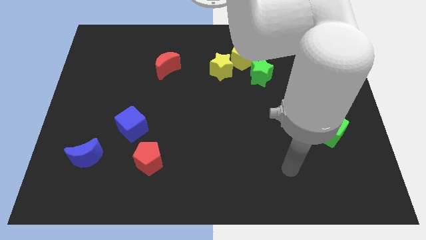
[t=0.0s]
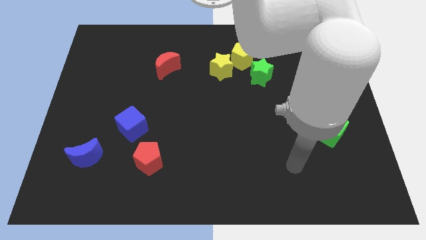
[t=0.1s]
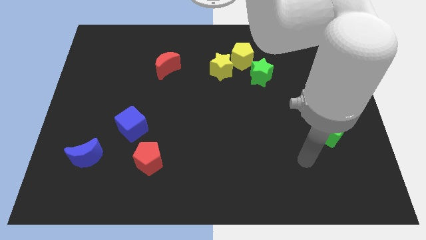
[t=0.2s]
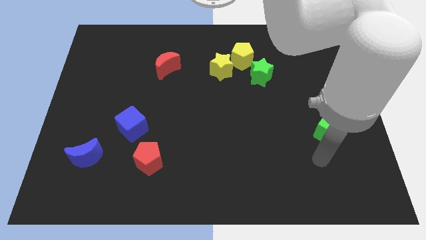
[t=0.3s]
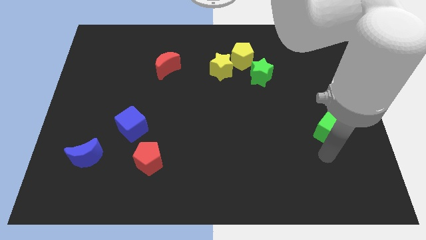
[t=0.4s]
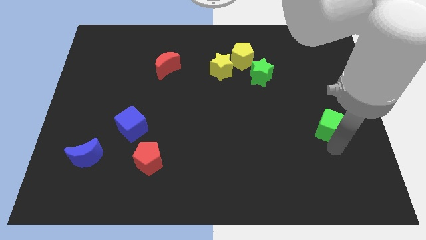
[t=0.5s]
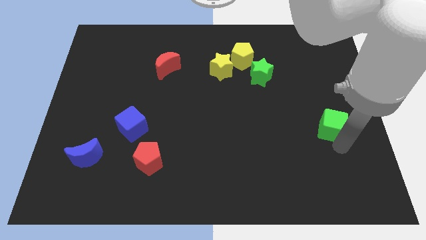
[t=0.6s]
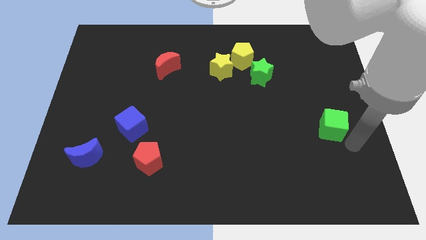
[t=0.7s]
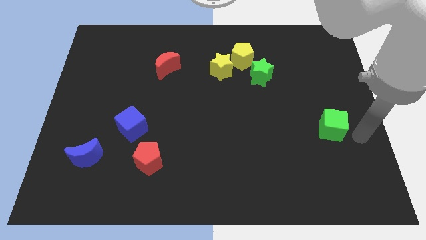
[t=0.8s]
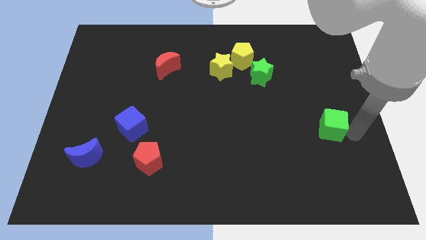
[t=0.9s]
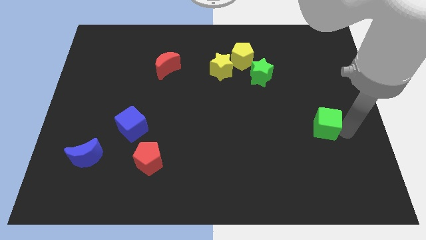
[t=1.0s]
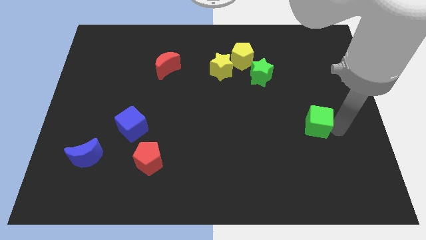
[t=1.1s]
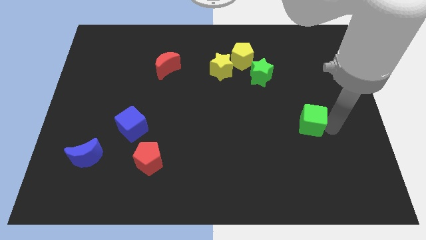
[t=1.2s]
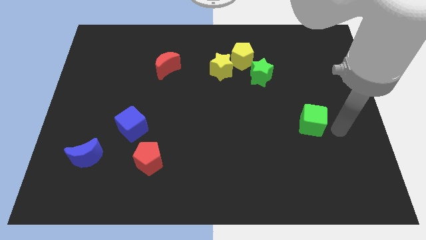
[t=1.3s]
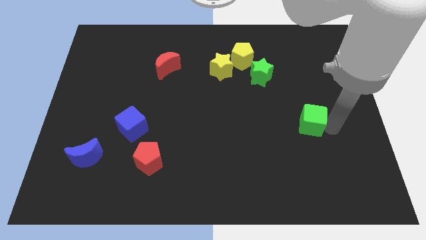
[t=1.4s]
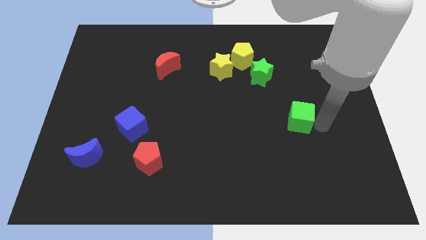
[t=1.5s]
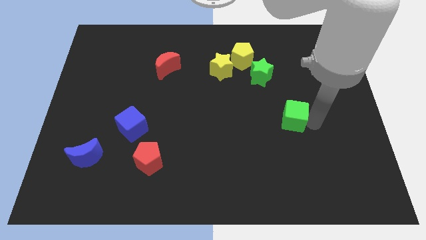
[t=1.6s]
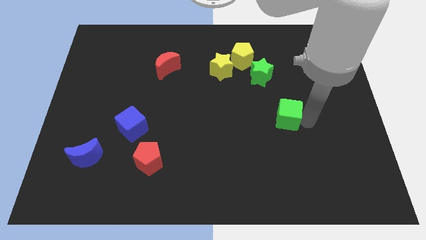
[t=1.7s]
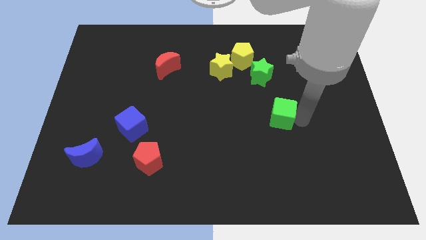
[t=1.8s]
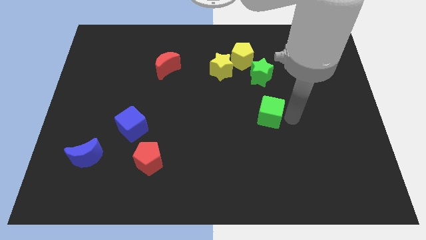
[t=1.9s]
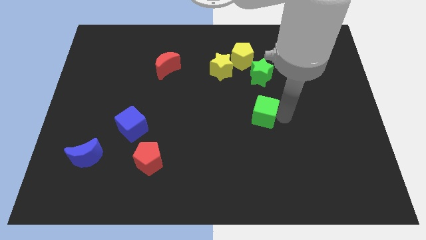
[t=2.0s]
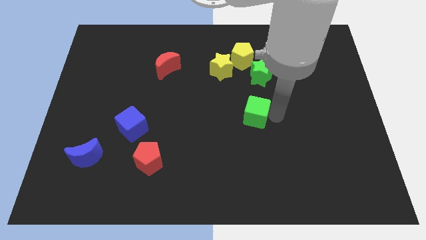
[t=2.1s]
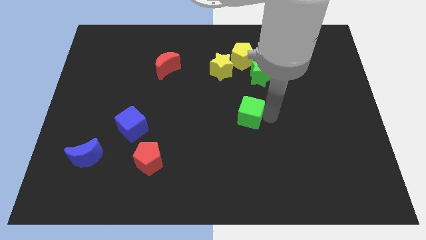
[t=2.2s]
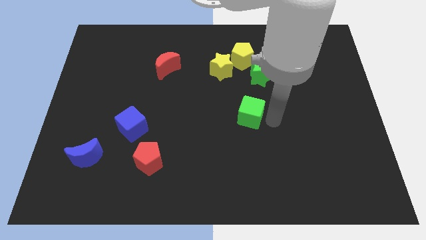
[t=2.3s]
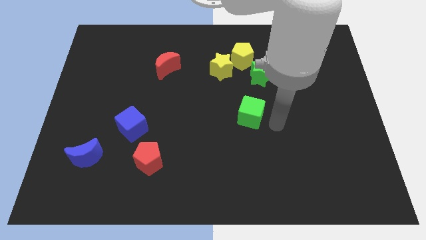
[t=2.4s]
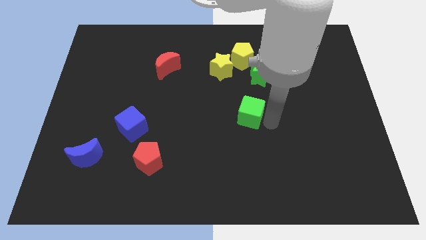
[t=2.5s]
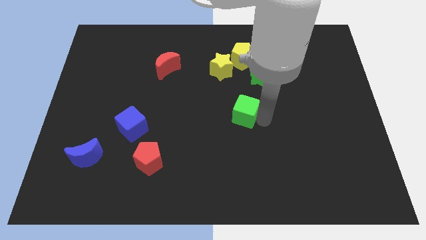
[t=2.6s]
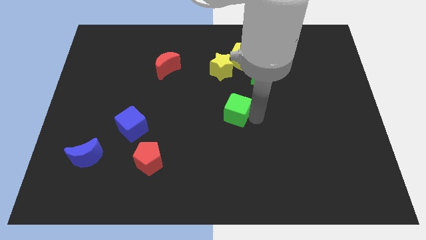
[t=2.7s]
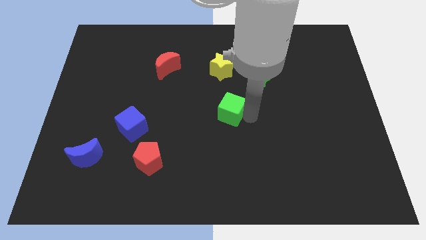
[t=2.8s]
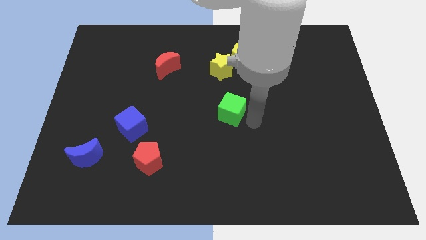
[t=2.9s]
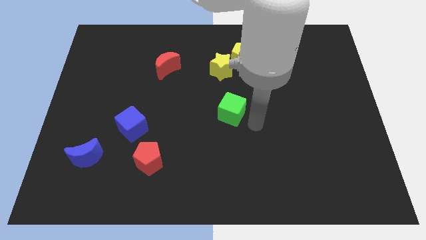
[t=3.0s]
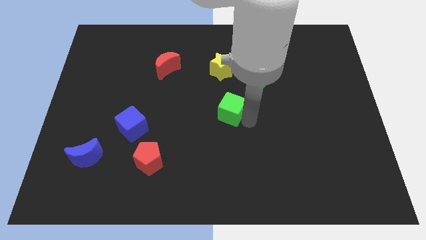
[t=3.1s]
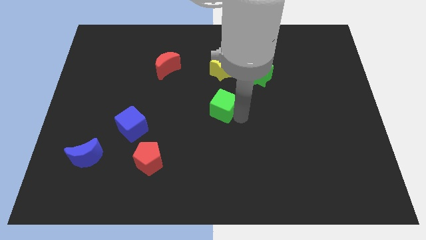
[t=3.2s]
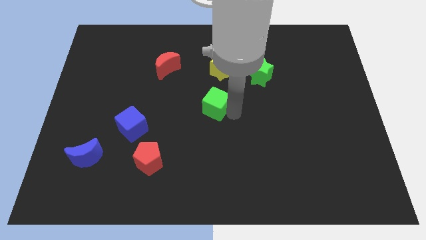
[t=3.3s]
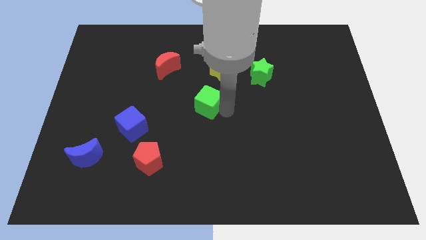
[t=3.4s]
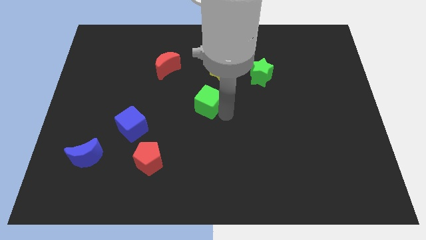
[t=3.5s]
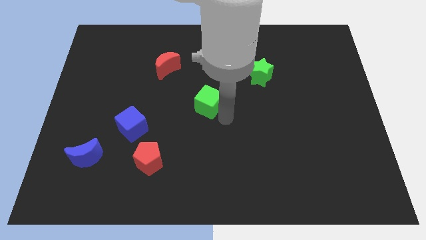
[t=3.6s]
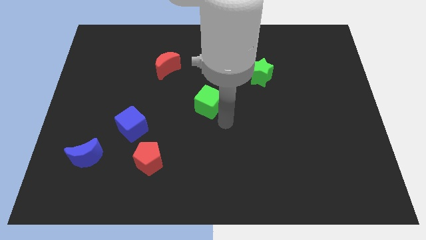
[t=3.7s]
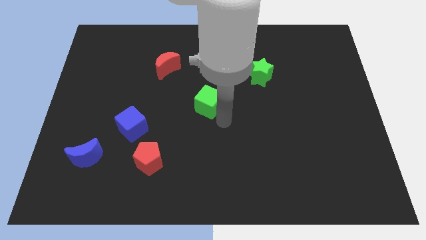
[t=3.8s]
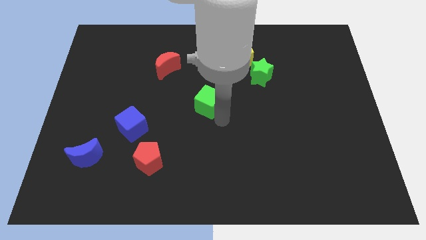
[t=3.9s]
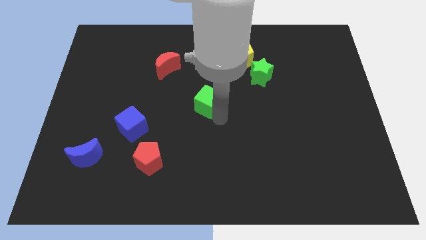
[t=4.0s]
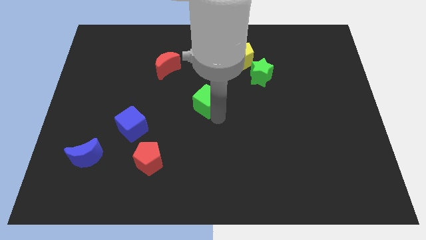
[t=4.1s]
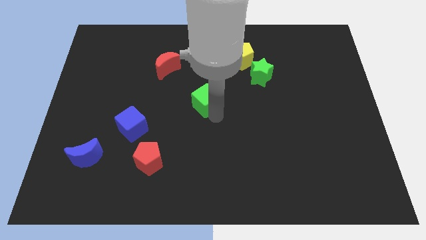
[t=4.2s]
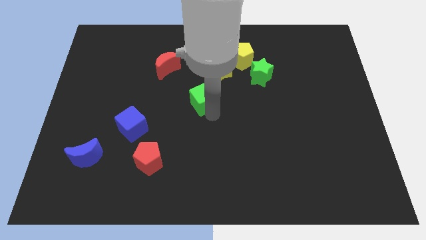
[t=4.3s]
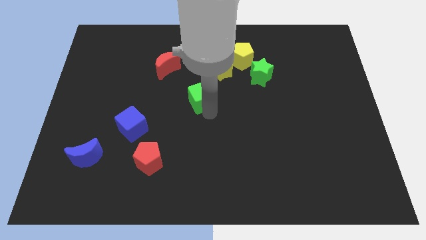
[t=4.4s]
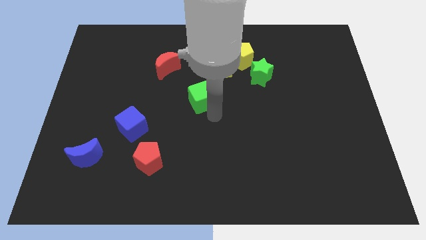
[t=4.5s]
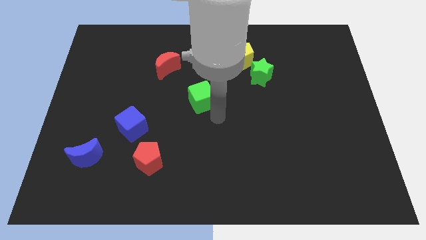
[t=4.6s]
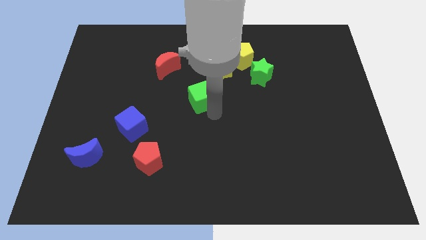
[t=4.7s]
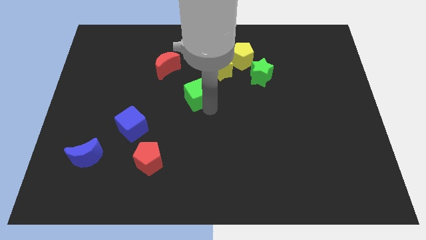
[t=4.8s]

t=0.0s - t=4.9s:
push the green cube diagonally down and to the right of the red moon

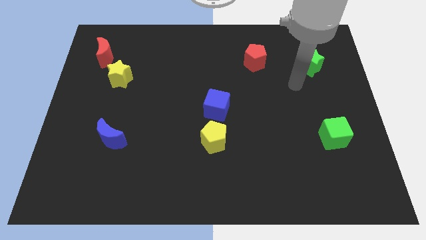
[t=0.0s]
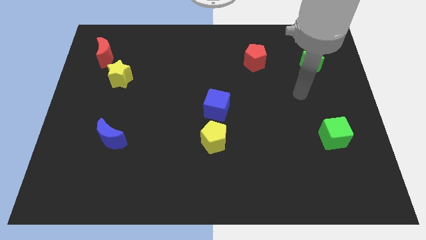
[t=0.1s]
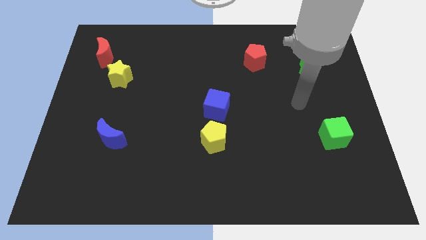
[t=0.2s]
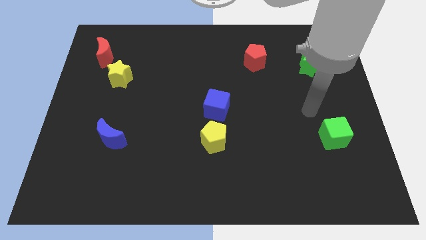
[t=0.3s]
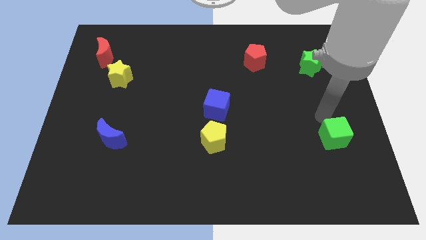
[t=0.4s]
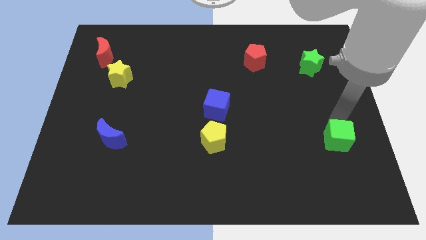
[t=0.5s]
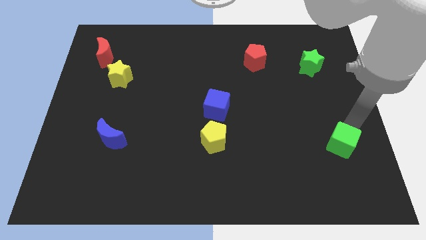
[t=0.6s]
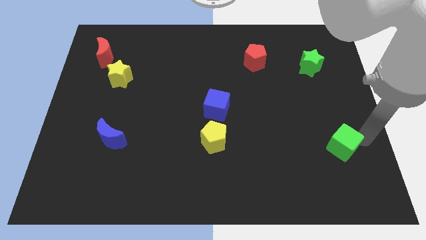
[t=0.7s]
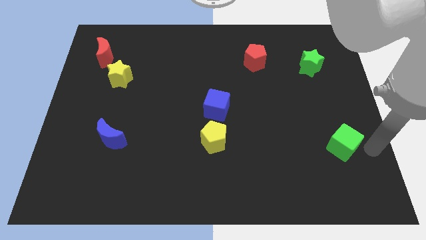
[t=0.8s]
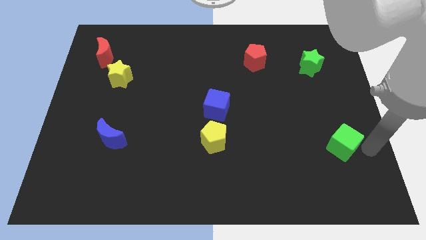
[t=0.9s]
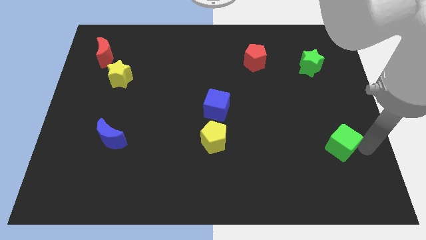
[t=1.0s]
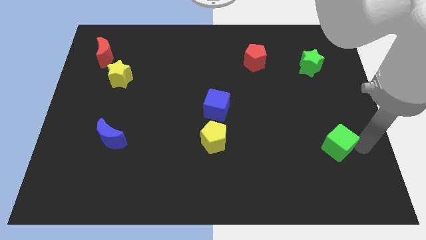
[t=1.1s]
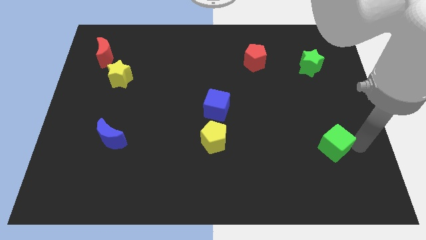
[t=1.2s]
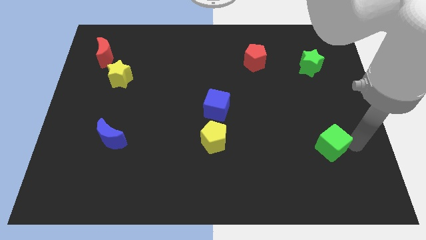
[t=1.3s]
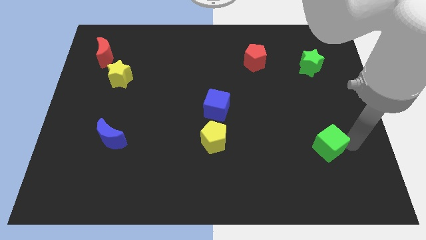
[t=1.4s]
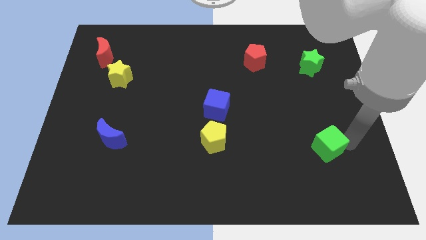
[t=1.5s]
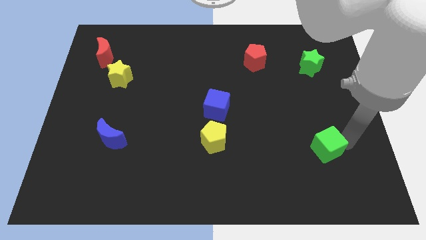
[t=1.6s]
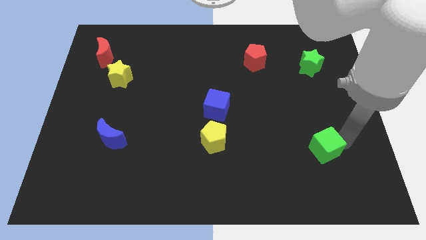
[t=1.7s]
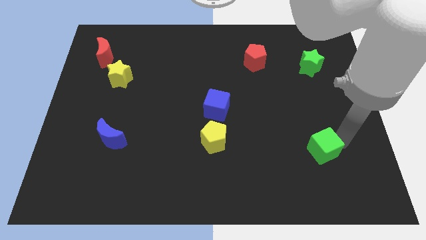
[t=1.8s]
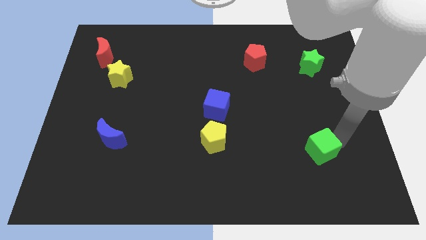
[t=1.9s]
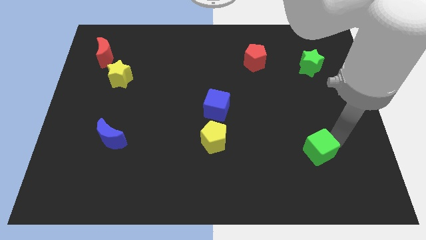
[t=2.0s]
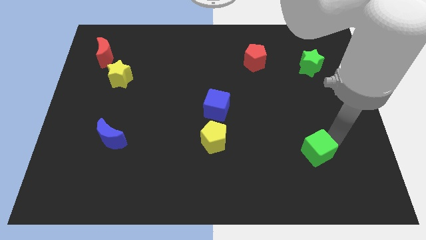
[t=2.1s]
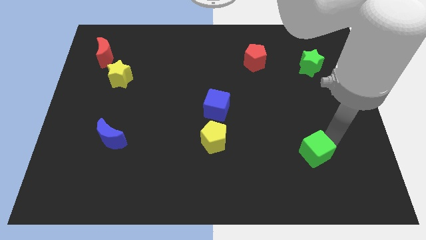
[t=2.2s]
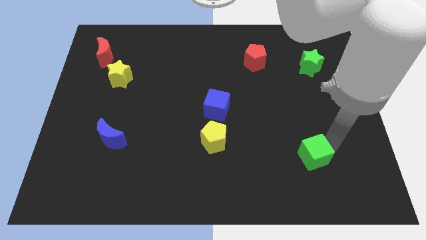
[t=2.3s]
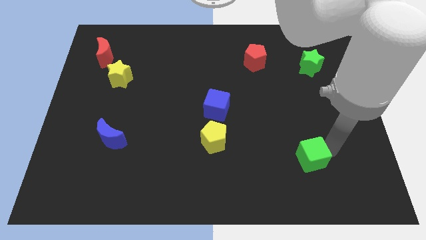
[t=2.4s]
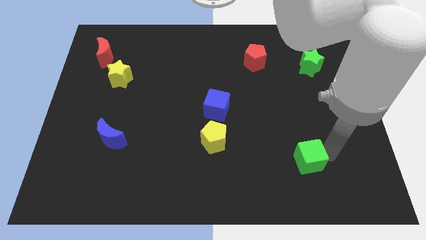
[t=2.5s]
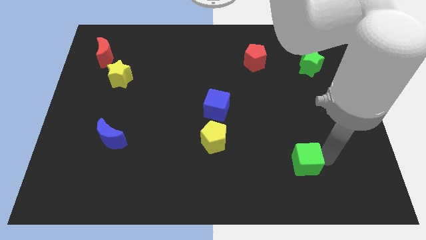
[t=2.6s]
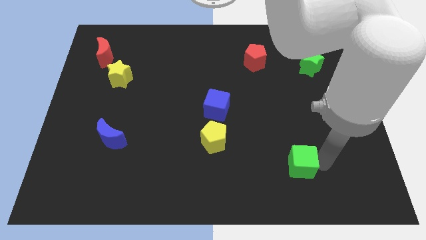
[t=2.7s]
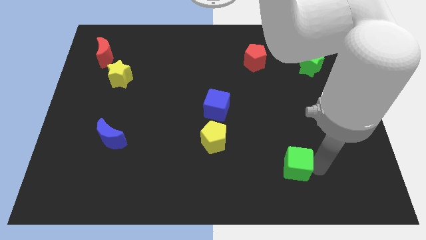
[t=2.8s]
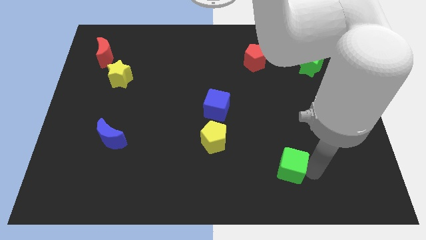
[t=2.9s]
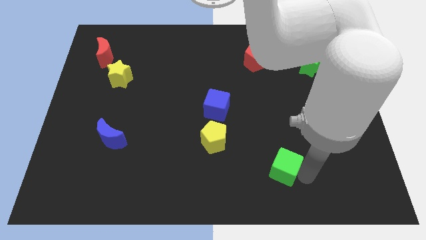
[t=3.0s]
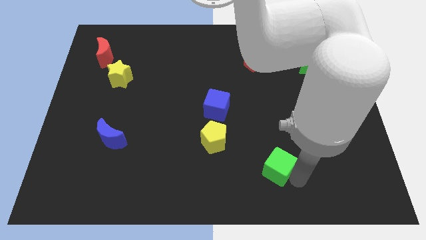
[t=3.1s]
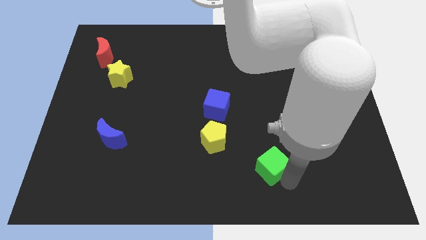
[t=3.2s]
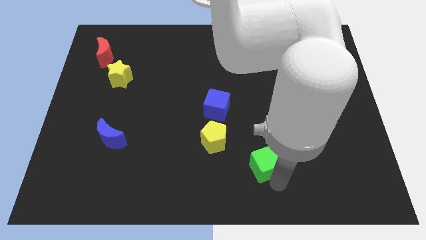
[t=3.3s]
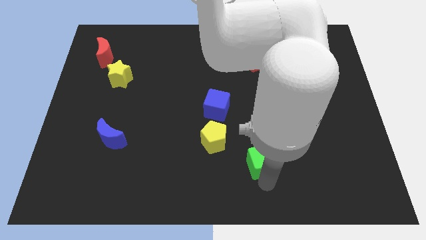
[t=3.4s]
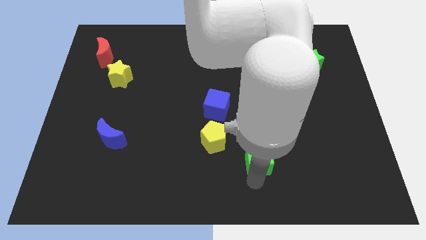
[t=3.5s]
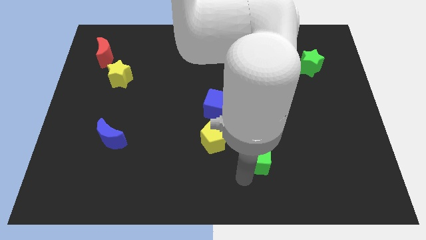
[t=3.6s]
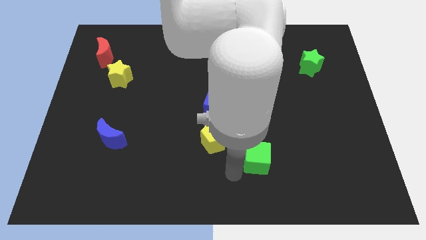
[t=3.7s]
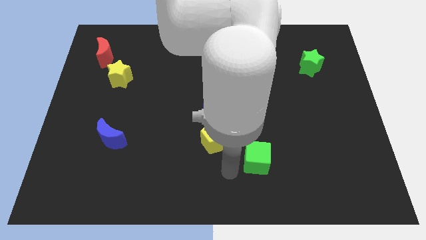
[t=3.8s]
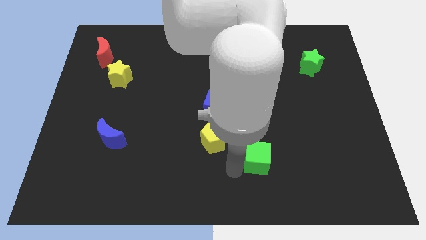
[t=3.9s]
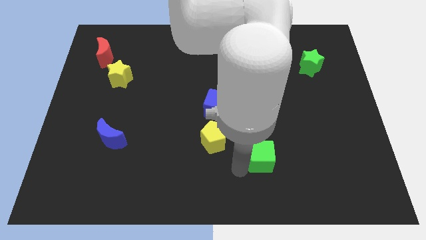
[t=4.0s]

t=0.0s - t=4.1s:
slide the green cube right of the yellow pentagon
